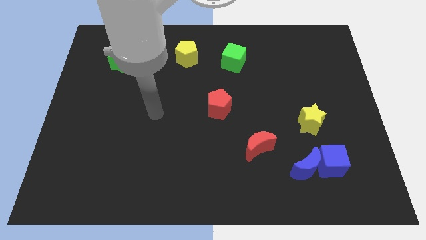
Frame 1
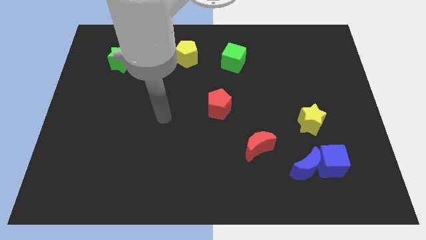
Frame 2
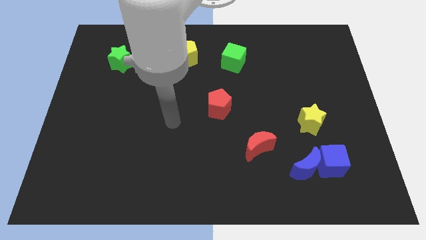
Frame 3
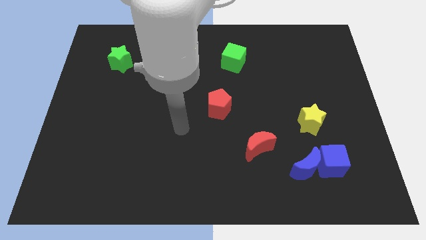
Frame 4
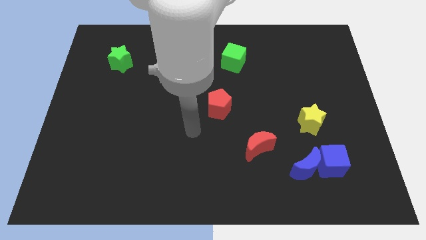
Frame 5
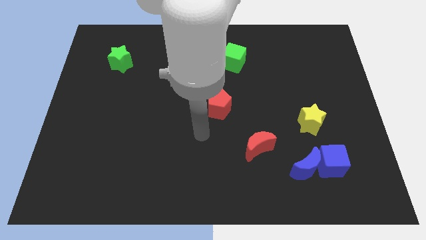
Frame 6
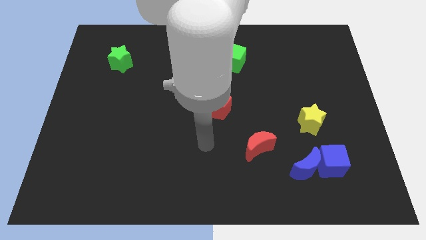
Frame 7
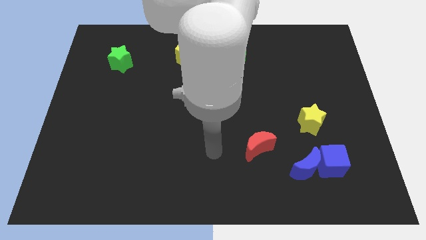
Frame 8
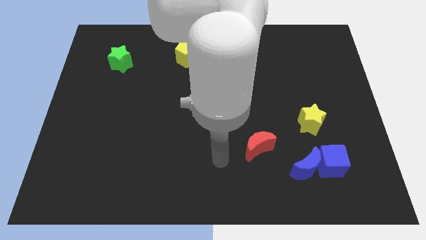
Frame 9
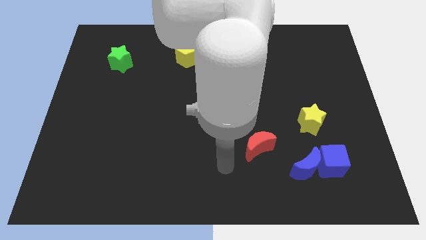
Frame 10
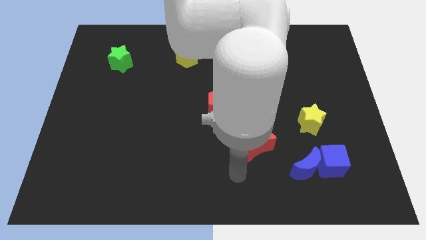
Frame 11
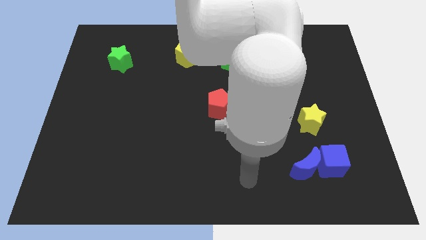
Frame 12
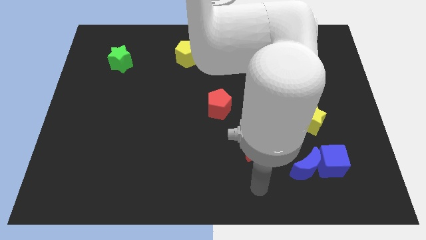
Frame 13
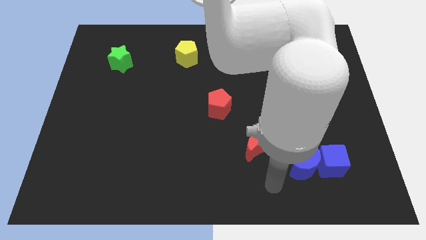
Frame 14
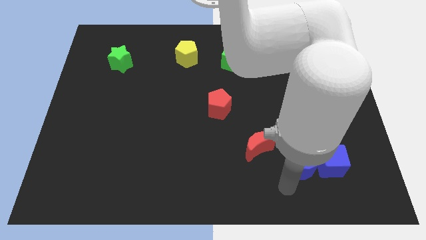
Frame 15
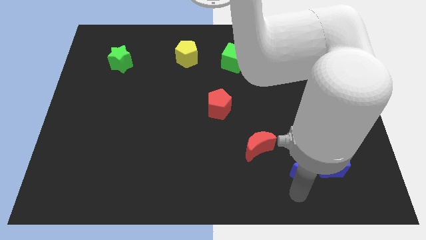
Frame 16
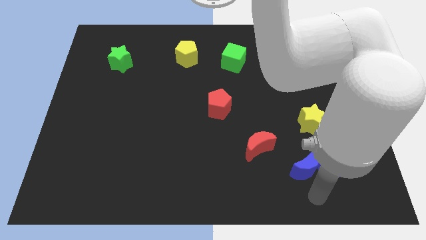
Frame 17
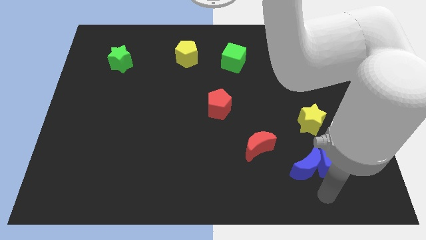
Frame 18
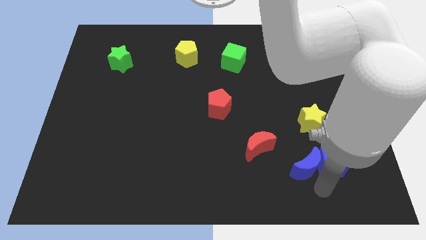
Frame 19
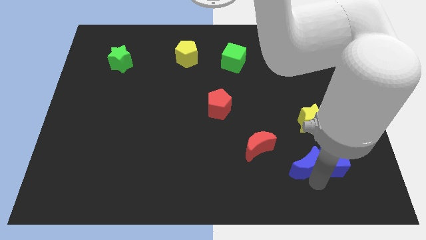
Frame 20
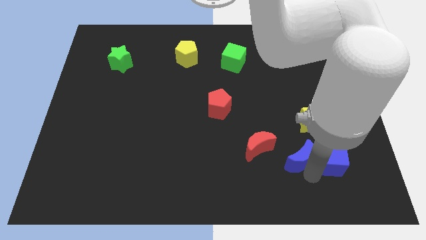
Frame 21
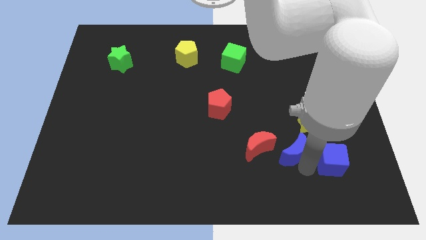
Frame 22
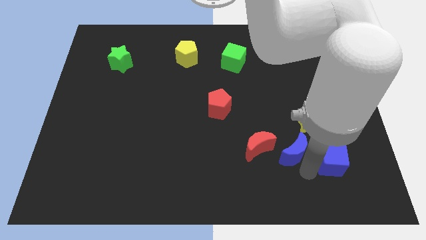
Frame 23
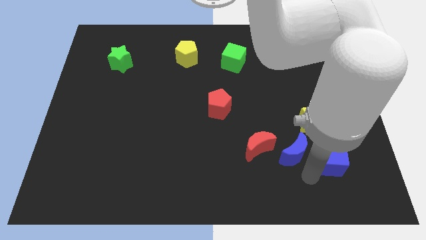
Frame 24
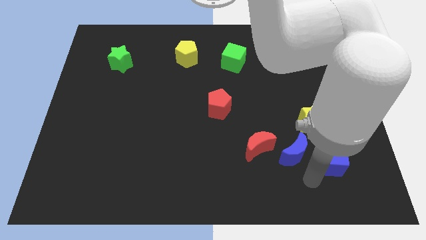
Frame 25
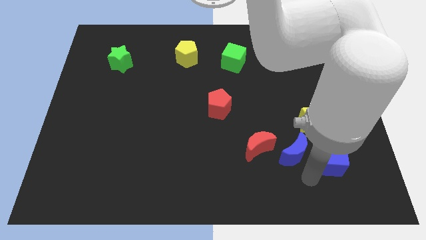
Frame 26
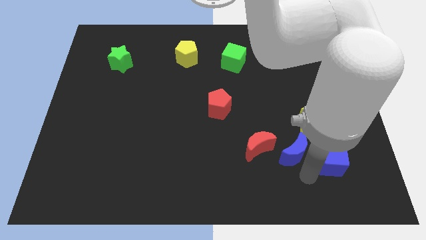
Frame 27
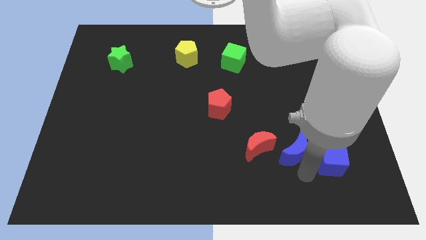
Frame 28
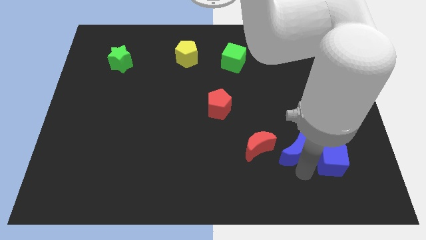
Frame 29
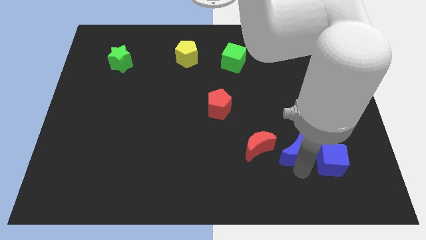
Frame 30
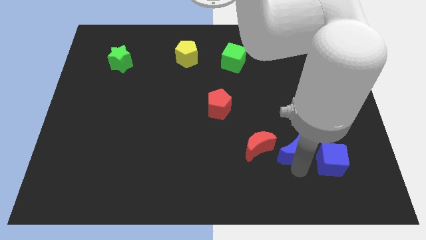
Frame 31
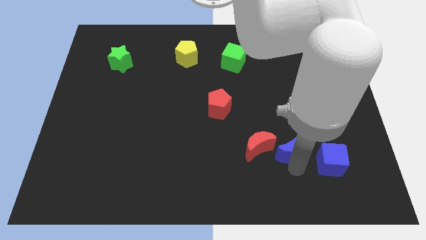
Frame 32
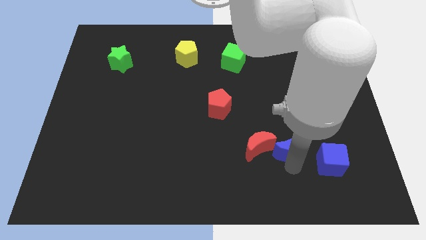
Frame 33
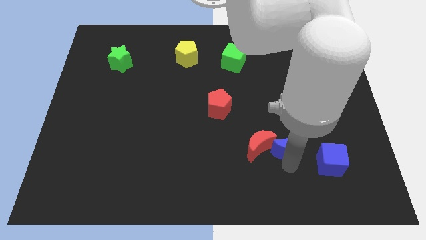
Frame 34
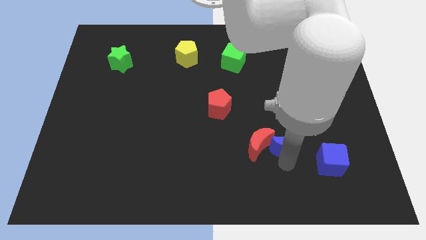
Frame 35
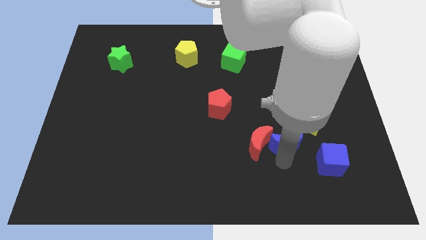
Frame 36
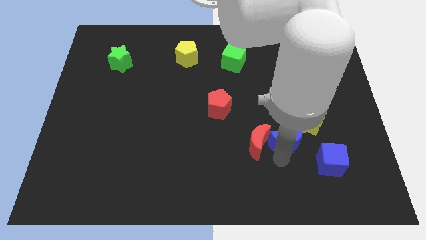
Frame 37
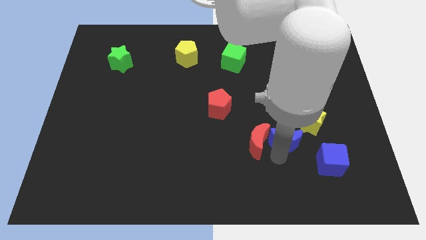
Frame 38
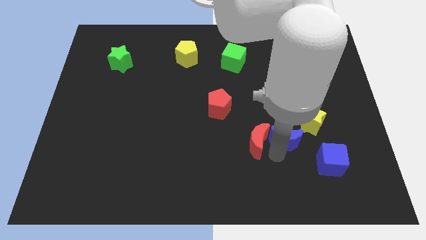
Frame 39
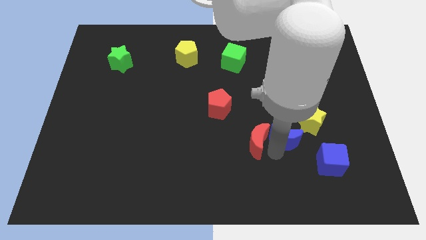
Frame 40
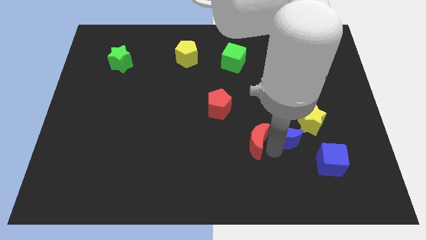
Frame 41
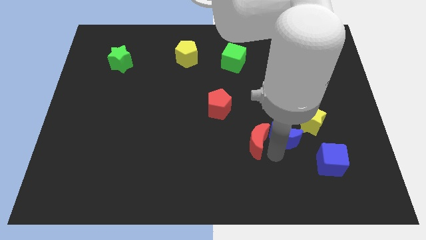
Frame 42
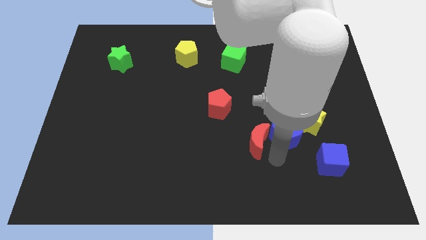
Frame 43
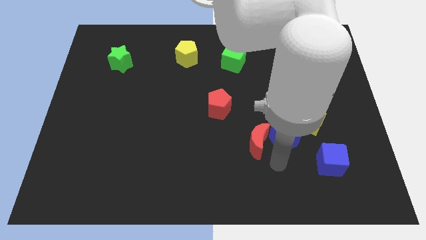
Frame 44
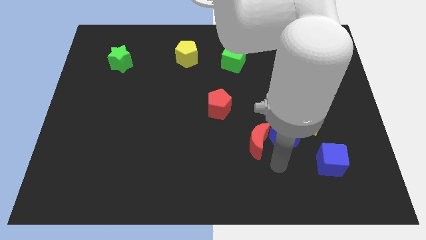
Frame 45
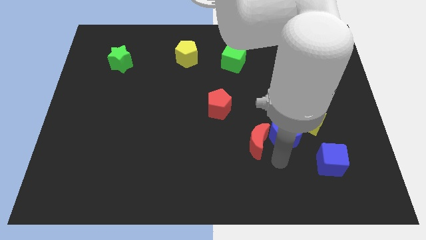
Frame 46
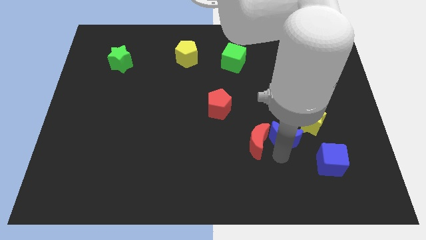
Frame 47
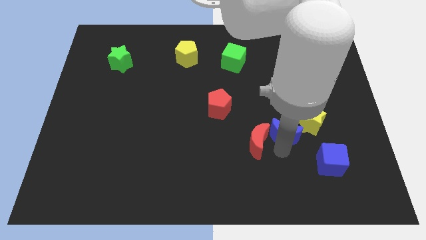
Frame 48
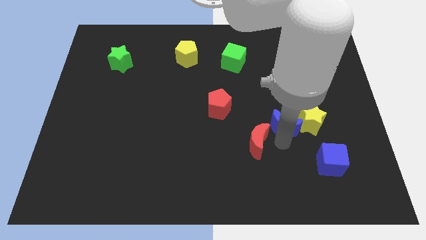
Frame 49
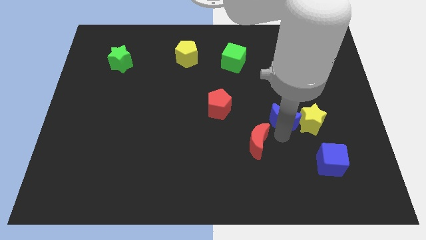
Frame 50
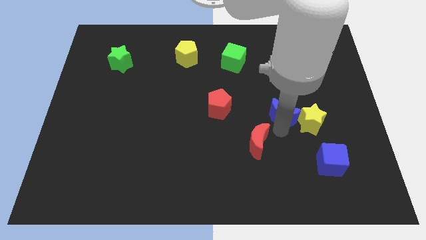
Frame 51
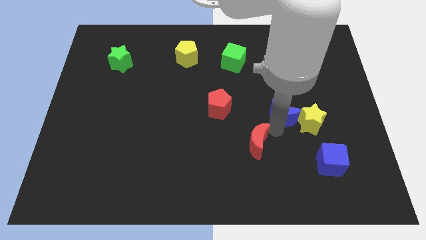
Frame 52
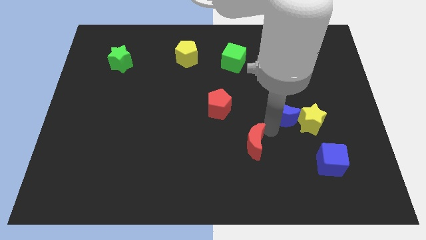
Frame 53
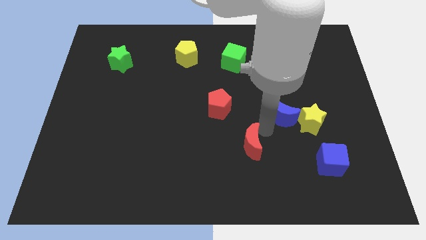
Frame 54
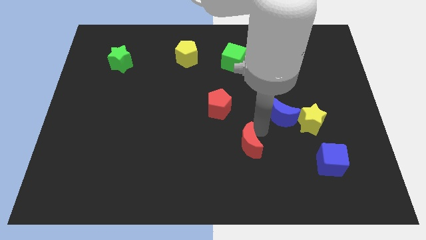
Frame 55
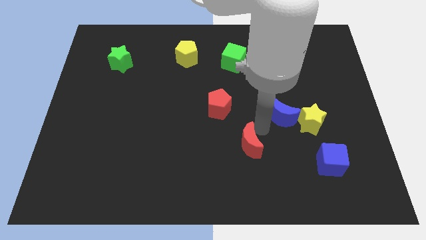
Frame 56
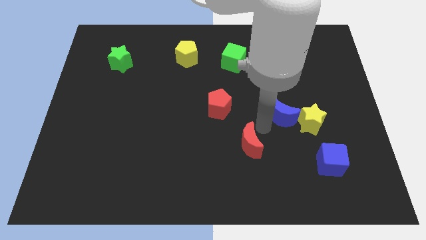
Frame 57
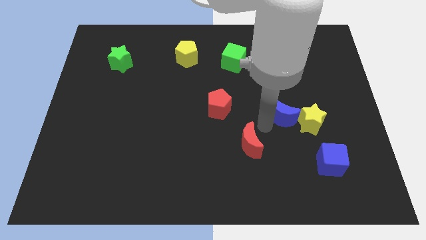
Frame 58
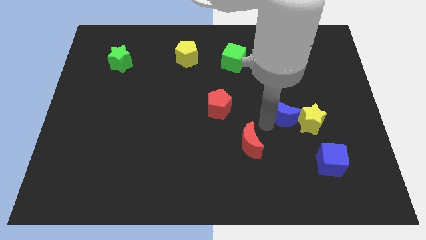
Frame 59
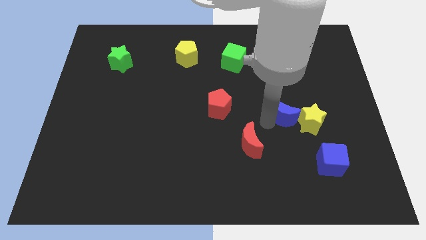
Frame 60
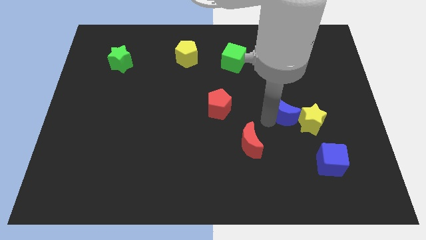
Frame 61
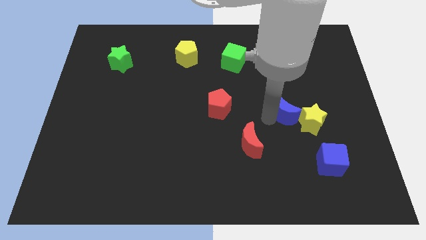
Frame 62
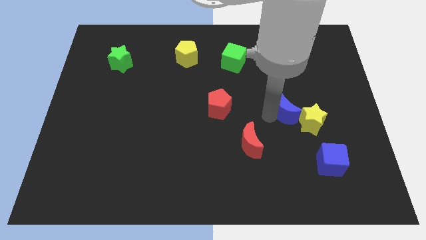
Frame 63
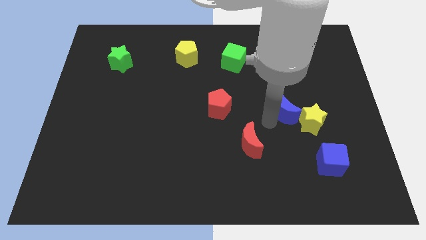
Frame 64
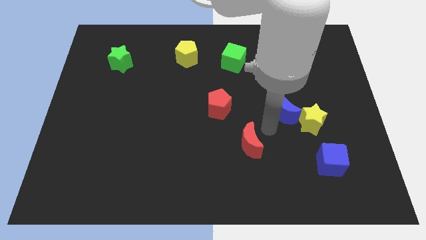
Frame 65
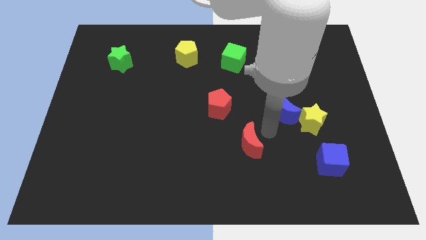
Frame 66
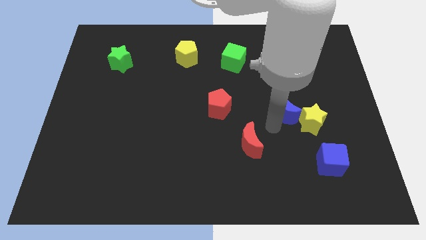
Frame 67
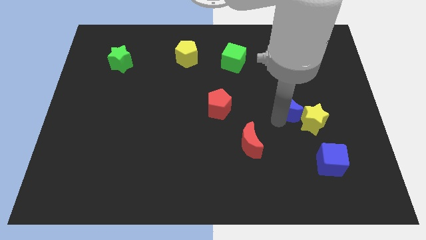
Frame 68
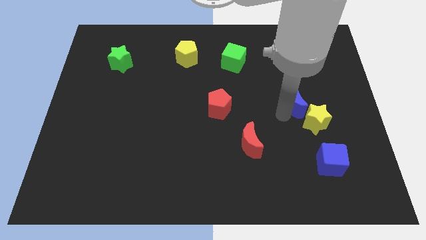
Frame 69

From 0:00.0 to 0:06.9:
move the blue moon to the top of the yellow star
